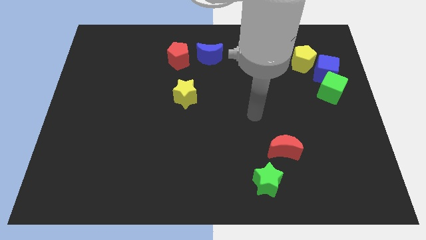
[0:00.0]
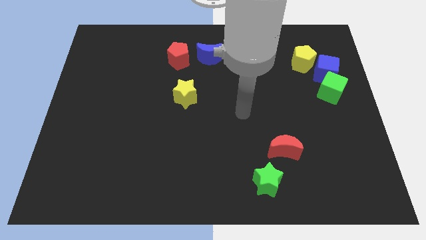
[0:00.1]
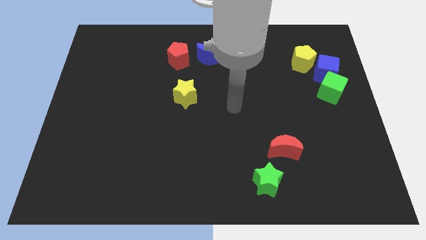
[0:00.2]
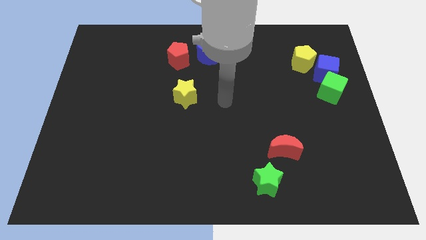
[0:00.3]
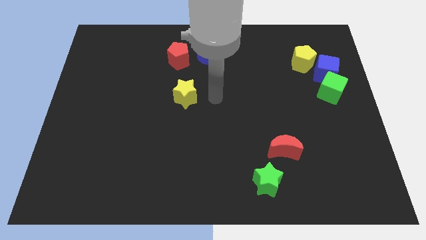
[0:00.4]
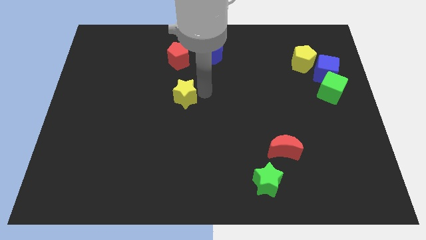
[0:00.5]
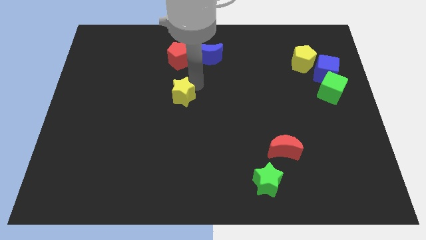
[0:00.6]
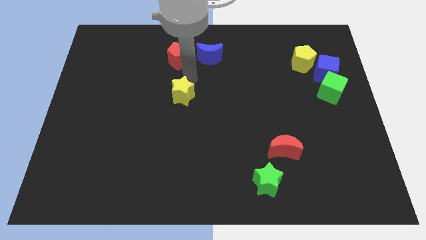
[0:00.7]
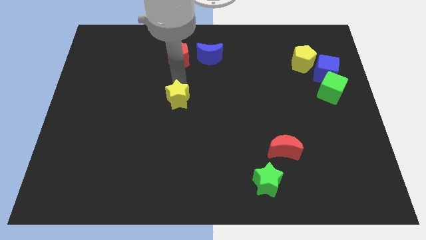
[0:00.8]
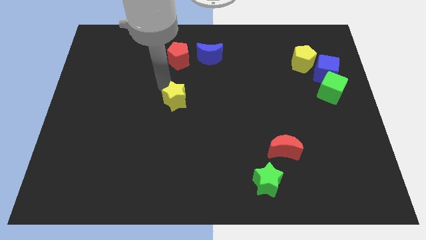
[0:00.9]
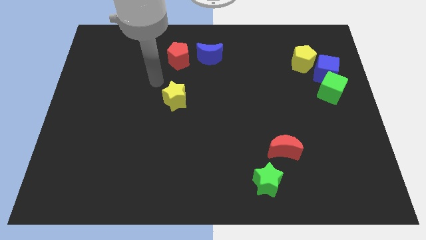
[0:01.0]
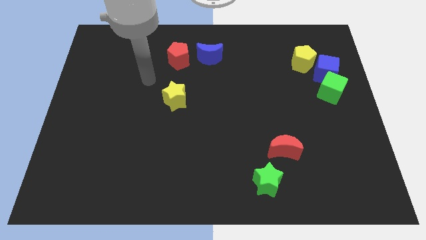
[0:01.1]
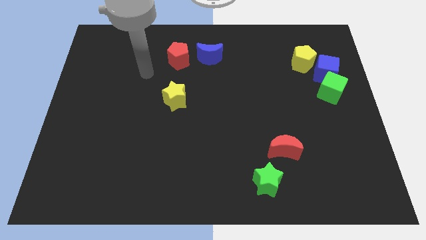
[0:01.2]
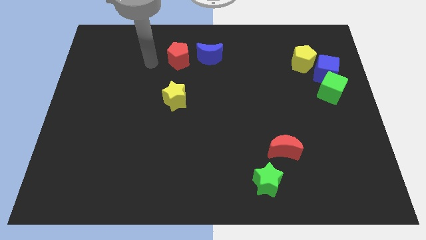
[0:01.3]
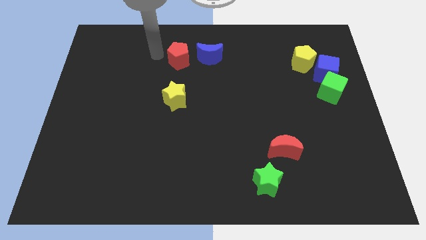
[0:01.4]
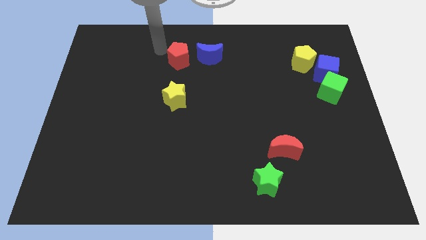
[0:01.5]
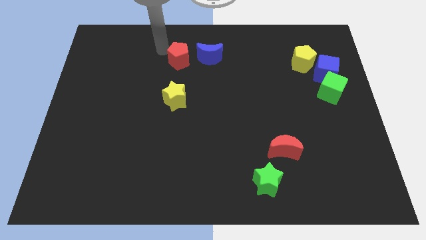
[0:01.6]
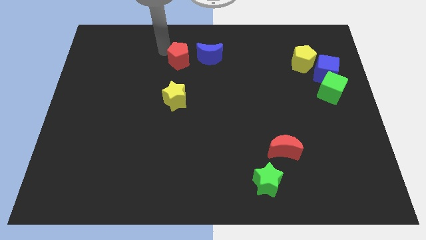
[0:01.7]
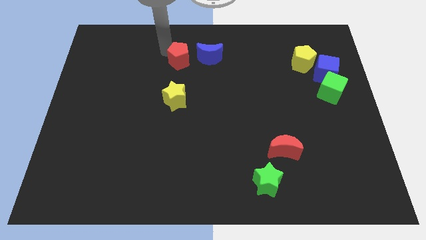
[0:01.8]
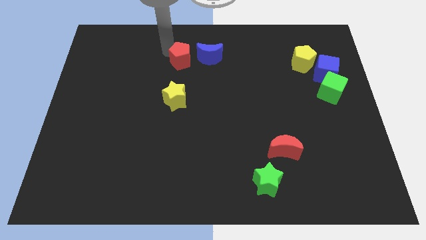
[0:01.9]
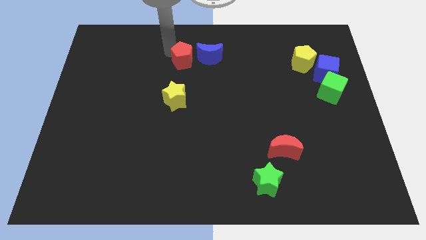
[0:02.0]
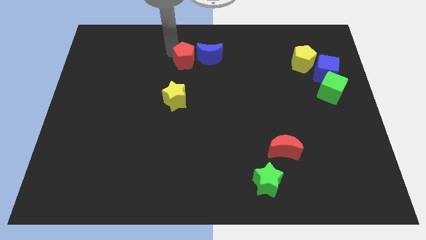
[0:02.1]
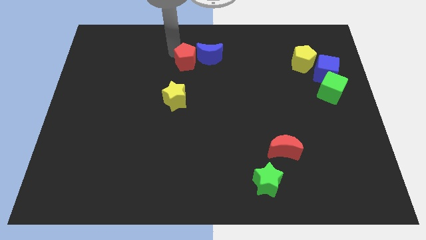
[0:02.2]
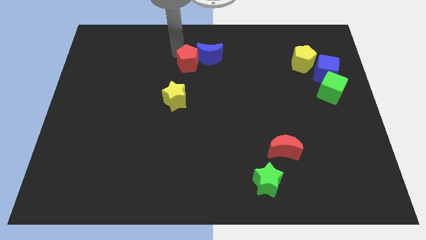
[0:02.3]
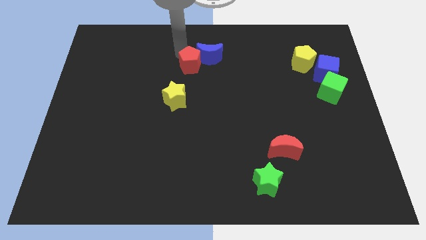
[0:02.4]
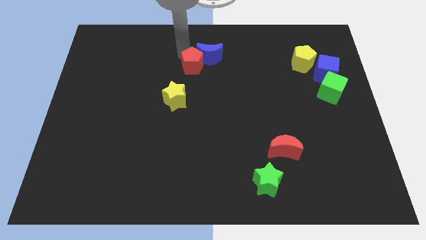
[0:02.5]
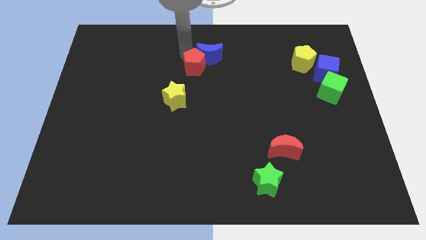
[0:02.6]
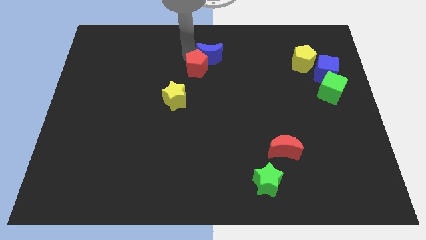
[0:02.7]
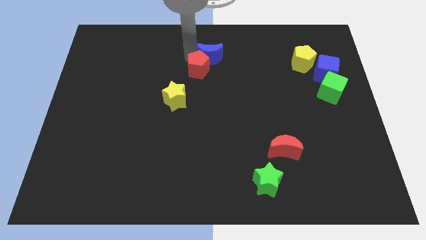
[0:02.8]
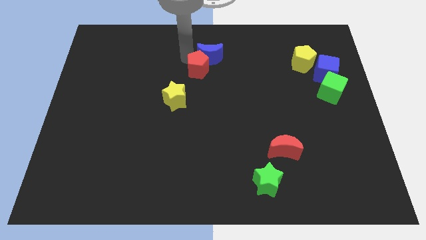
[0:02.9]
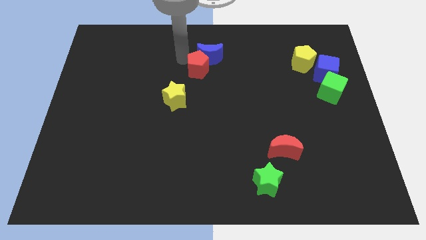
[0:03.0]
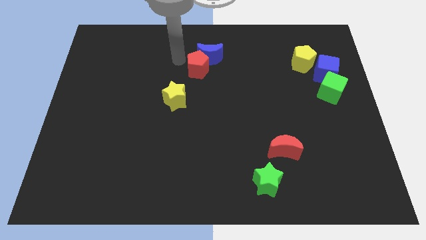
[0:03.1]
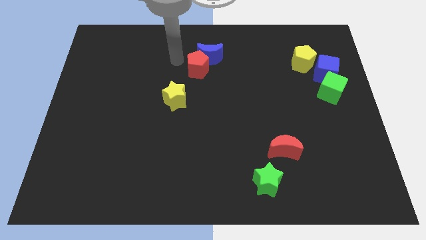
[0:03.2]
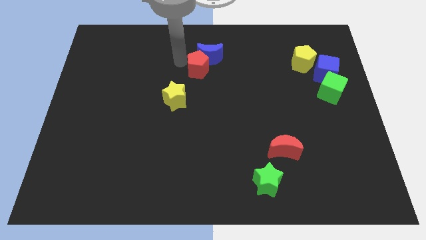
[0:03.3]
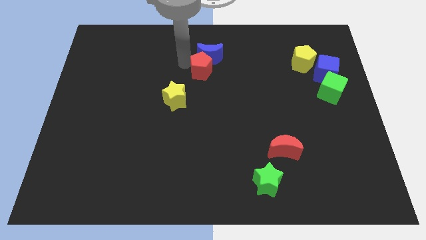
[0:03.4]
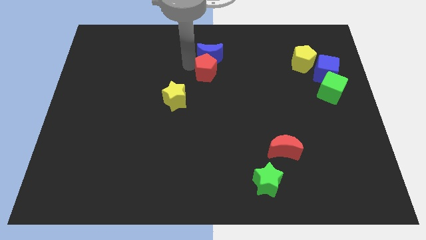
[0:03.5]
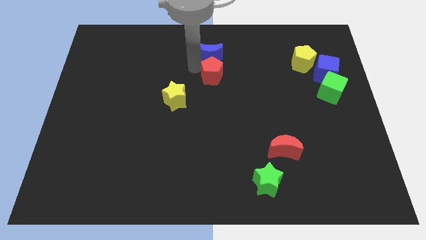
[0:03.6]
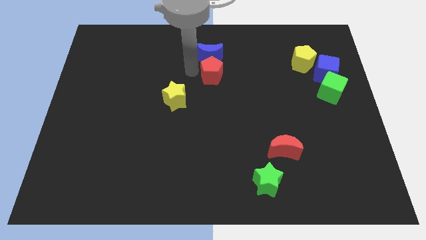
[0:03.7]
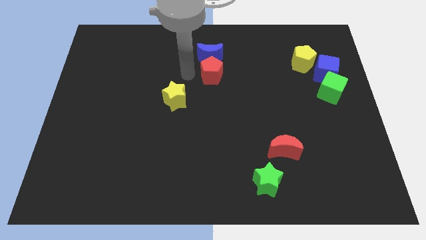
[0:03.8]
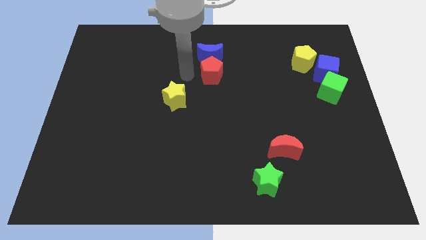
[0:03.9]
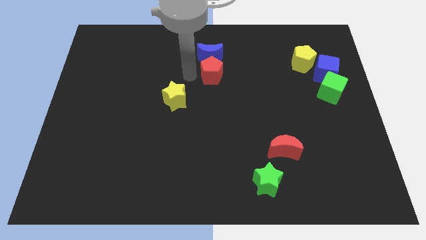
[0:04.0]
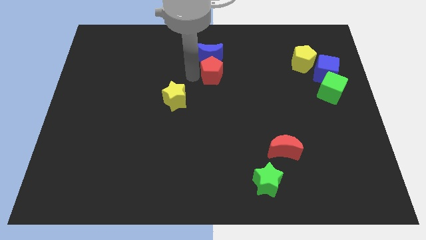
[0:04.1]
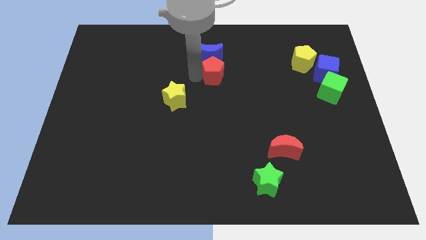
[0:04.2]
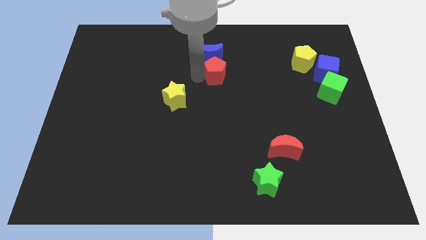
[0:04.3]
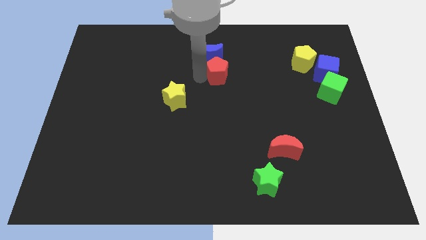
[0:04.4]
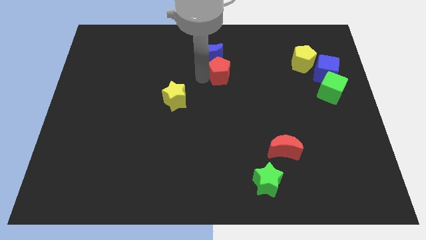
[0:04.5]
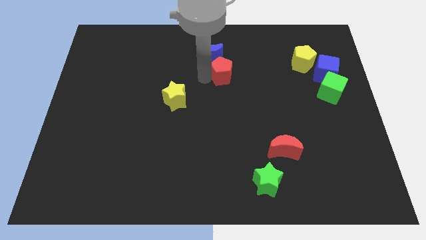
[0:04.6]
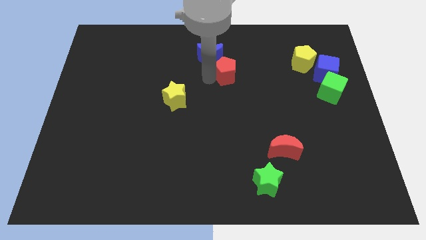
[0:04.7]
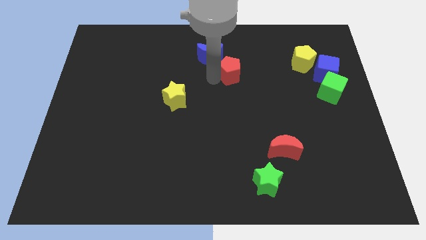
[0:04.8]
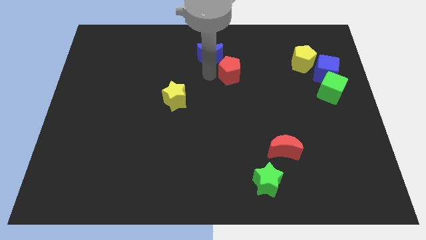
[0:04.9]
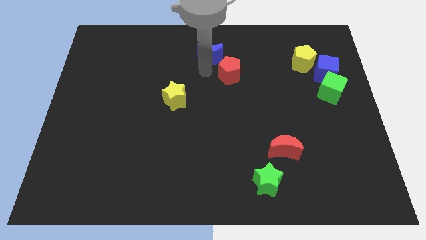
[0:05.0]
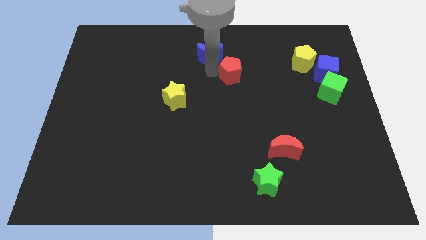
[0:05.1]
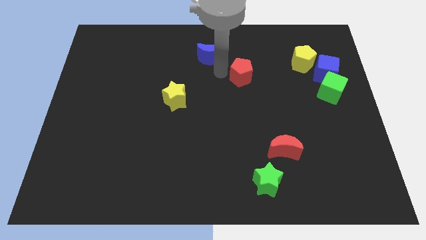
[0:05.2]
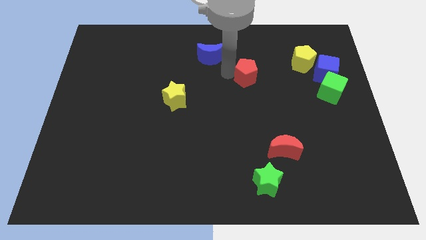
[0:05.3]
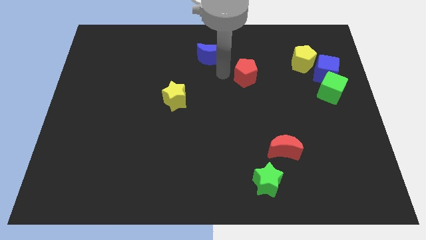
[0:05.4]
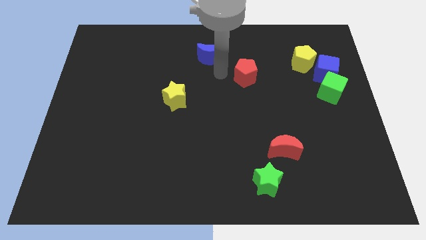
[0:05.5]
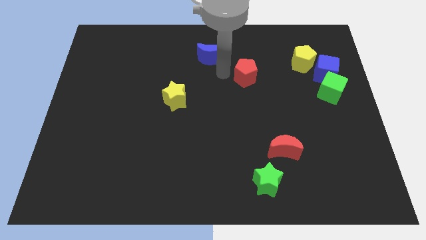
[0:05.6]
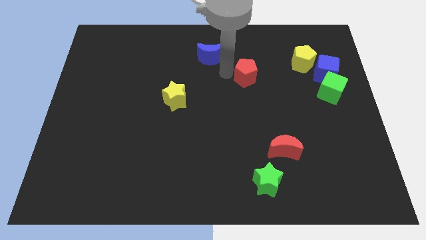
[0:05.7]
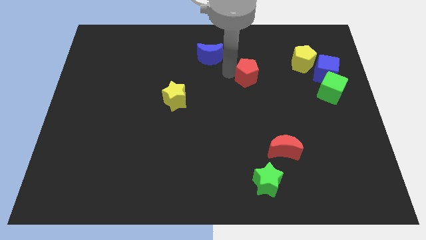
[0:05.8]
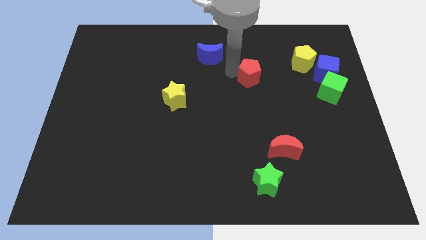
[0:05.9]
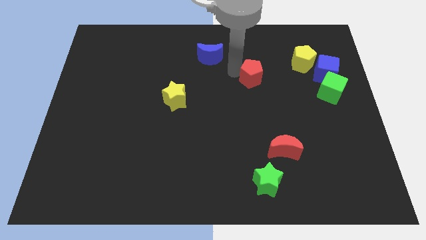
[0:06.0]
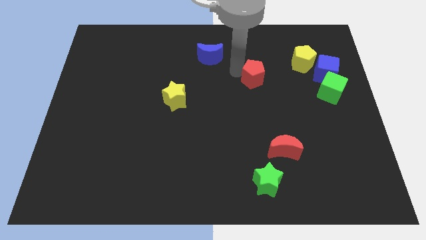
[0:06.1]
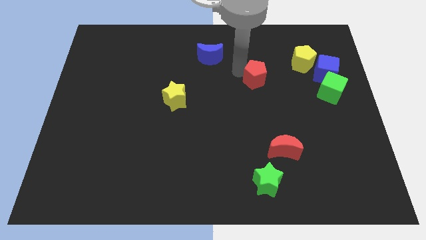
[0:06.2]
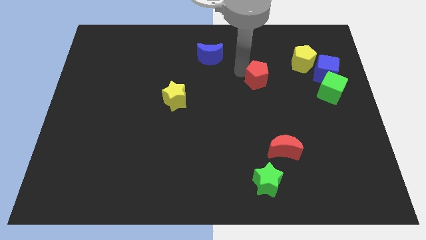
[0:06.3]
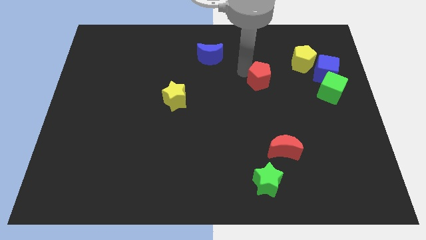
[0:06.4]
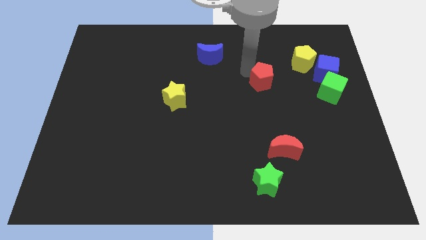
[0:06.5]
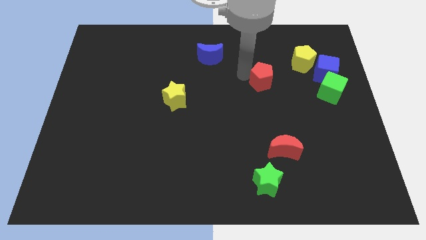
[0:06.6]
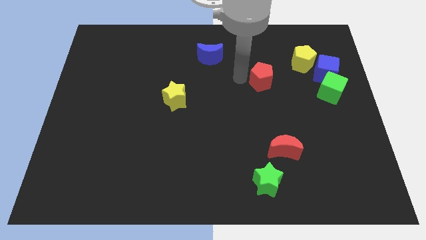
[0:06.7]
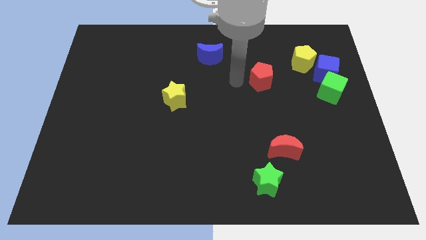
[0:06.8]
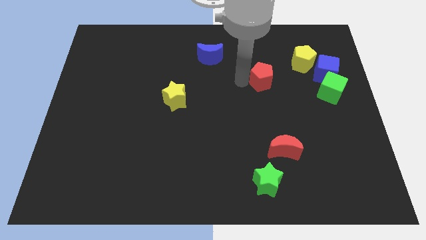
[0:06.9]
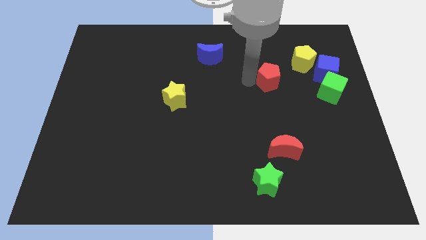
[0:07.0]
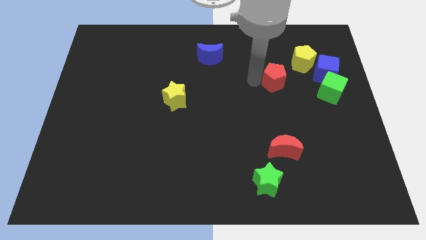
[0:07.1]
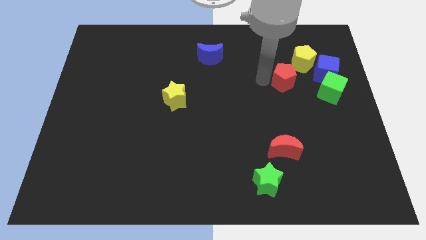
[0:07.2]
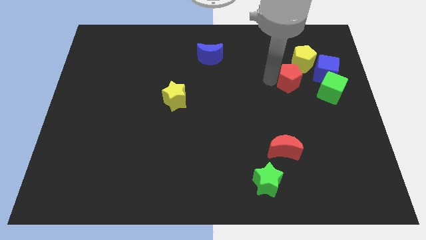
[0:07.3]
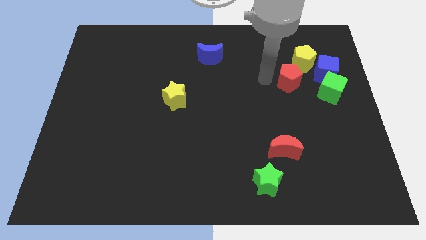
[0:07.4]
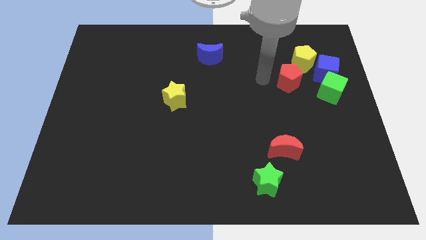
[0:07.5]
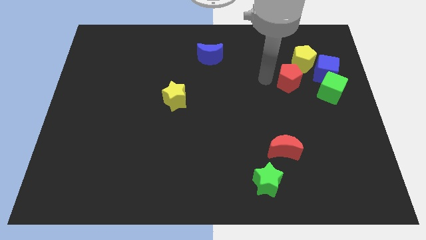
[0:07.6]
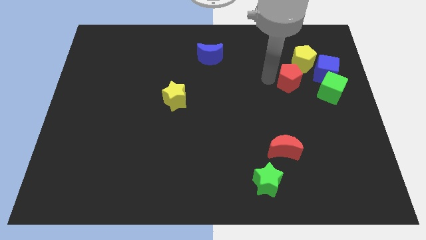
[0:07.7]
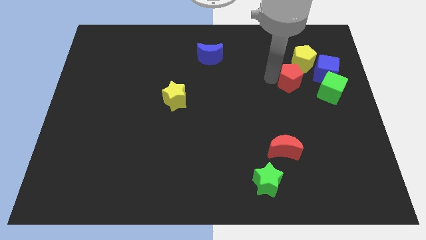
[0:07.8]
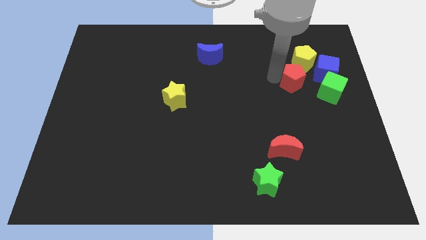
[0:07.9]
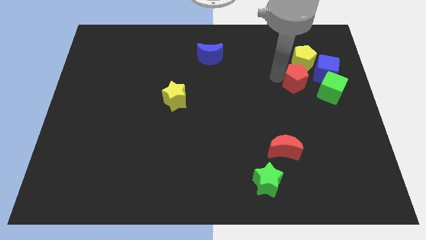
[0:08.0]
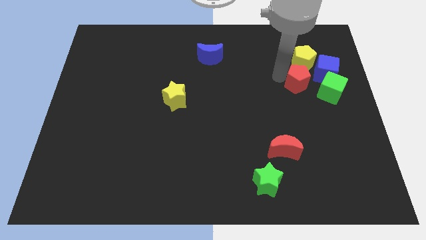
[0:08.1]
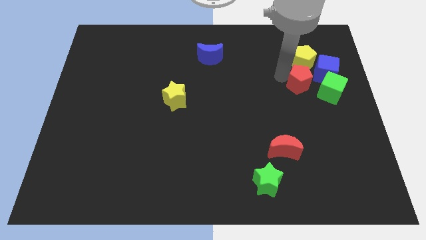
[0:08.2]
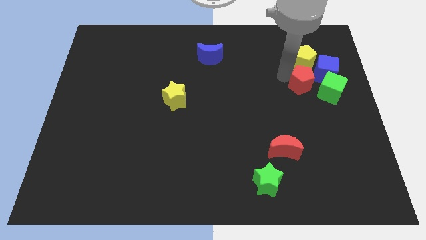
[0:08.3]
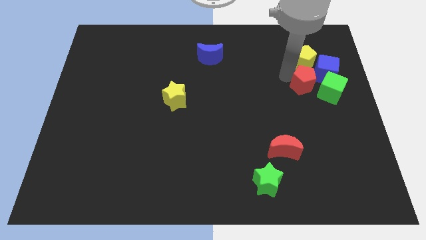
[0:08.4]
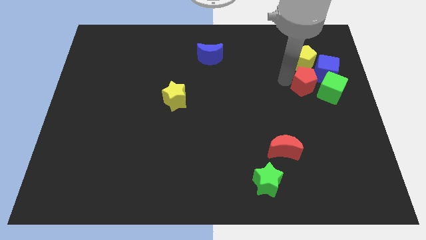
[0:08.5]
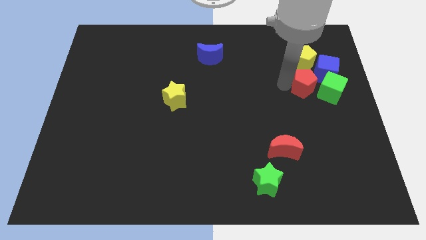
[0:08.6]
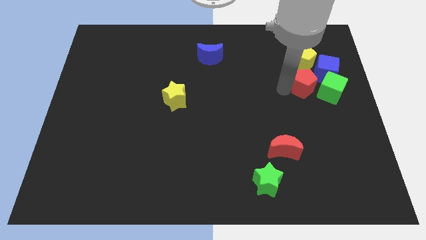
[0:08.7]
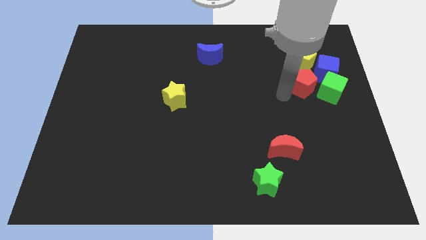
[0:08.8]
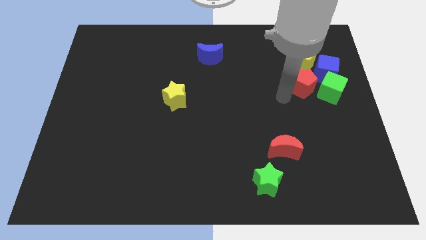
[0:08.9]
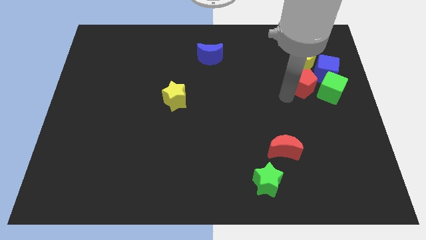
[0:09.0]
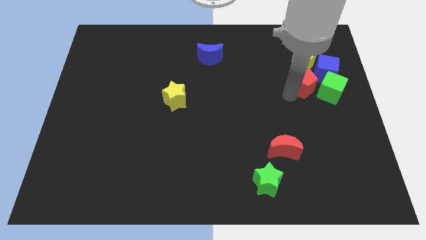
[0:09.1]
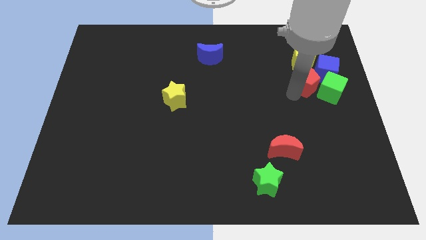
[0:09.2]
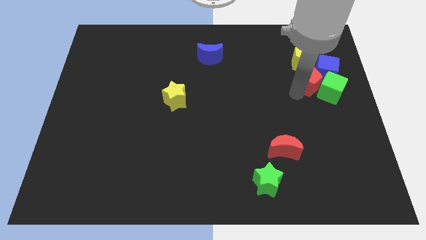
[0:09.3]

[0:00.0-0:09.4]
push the red pentagon to the blue cube
